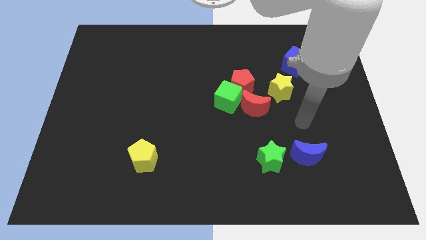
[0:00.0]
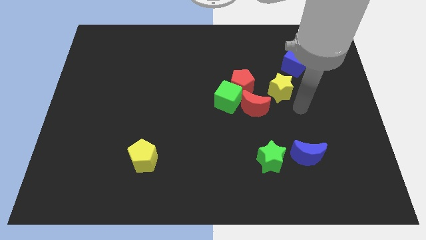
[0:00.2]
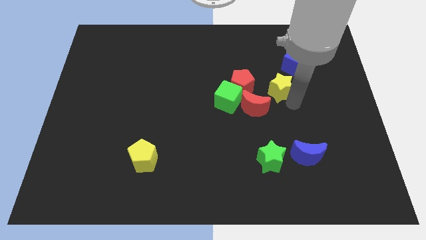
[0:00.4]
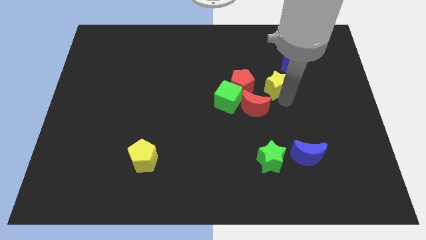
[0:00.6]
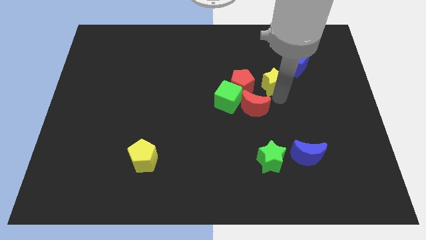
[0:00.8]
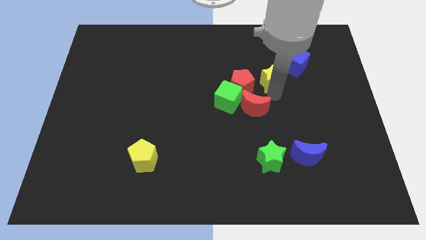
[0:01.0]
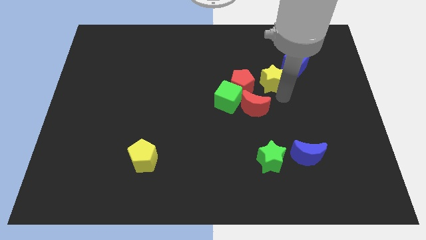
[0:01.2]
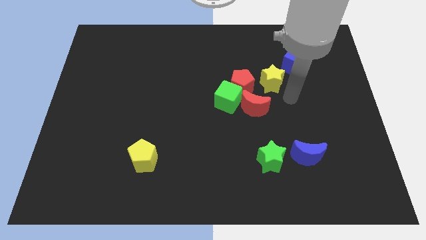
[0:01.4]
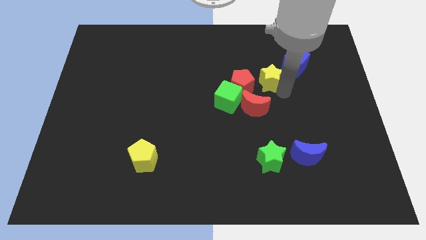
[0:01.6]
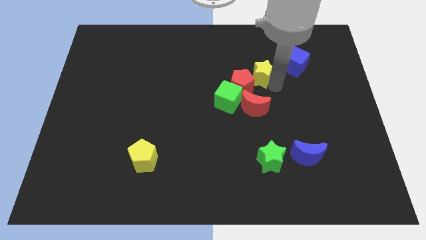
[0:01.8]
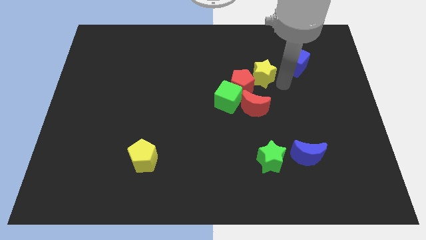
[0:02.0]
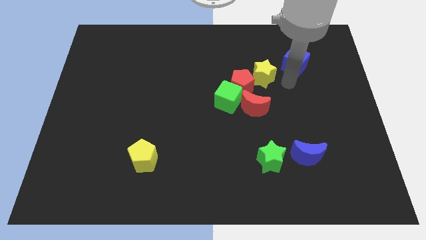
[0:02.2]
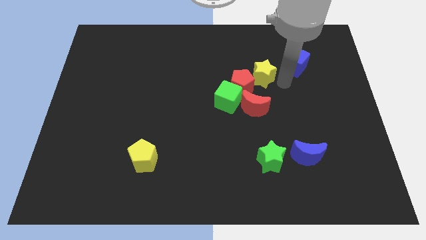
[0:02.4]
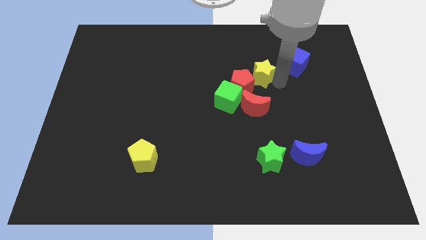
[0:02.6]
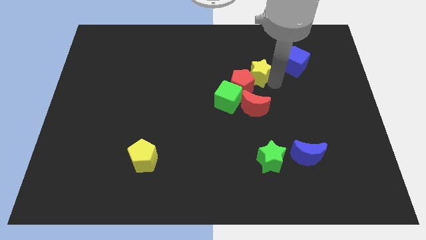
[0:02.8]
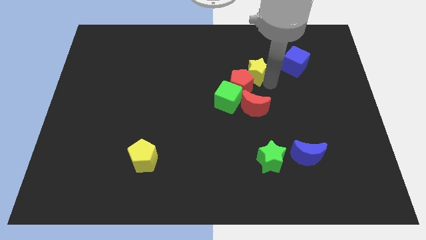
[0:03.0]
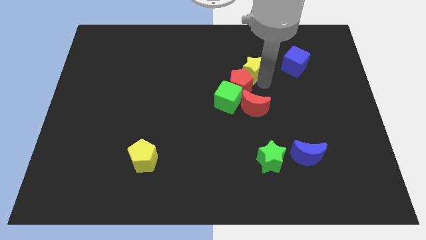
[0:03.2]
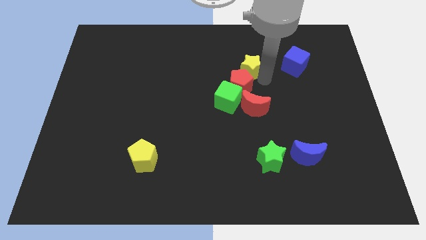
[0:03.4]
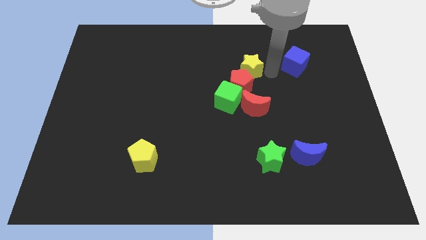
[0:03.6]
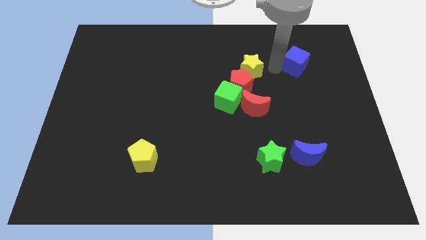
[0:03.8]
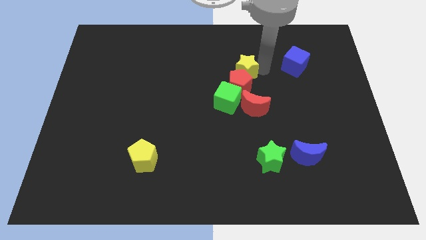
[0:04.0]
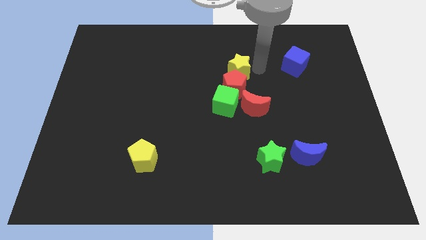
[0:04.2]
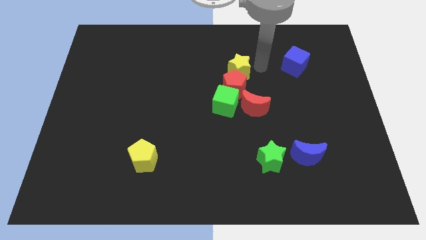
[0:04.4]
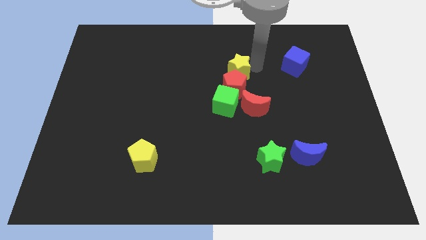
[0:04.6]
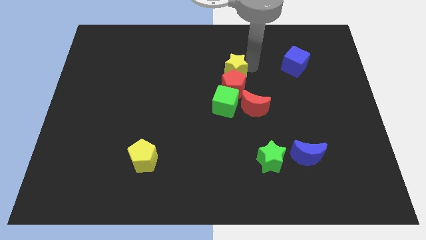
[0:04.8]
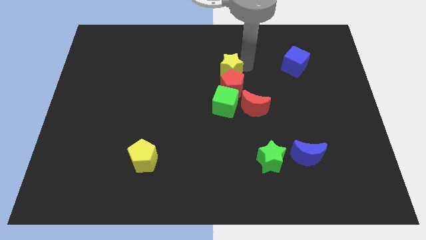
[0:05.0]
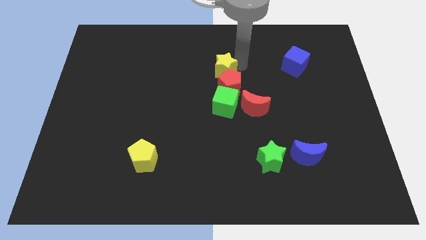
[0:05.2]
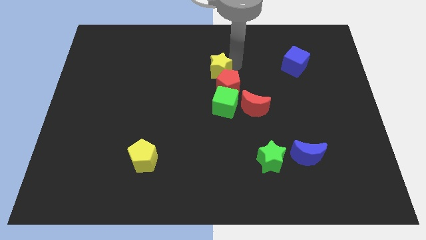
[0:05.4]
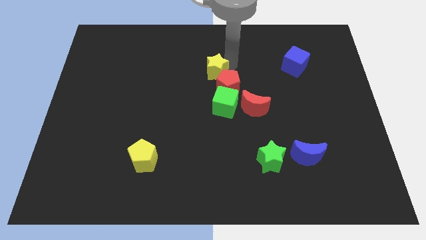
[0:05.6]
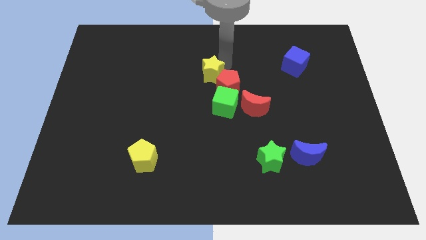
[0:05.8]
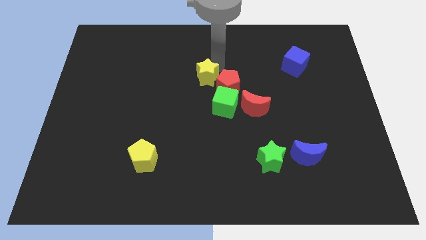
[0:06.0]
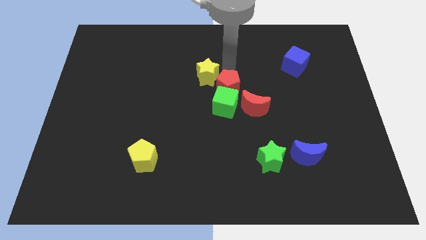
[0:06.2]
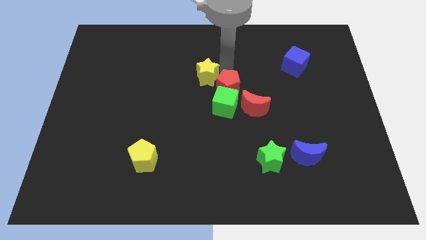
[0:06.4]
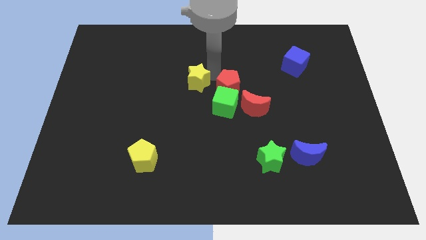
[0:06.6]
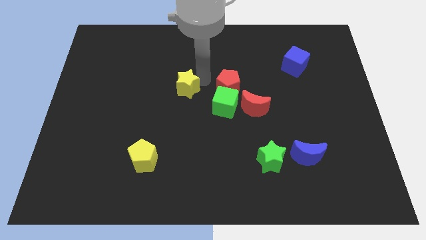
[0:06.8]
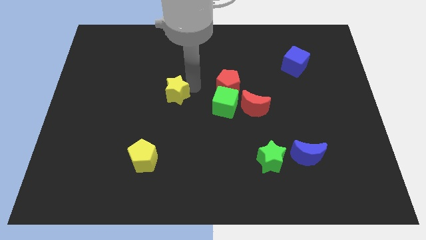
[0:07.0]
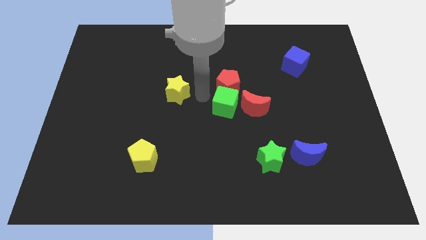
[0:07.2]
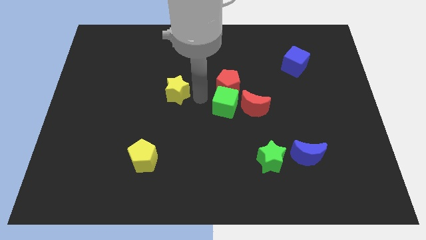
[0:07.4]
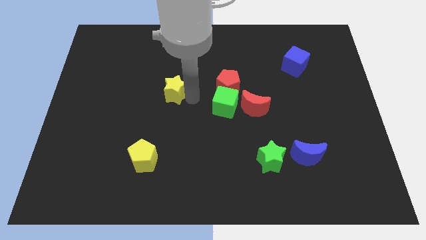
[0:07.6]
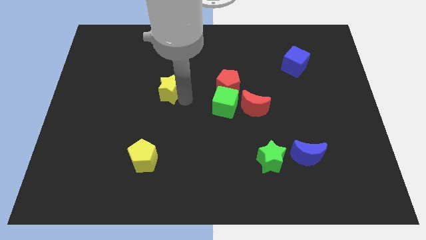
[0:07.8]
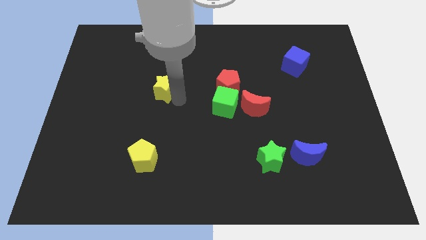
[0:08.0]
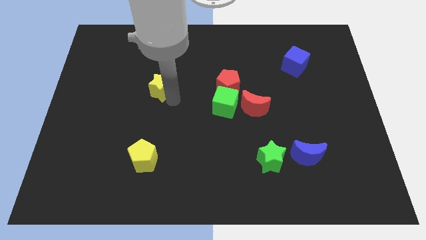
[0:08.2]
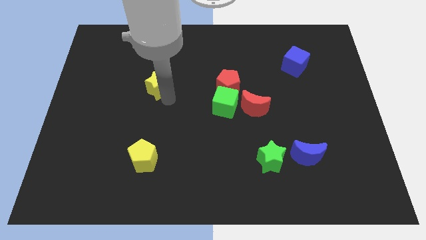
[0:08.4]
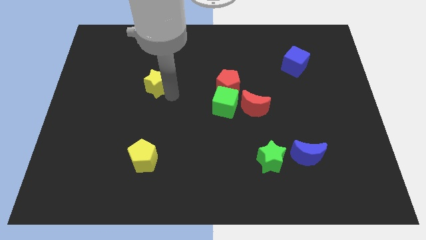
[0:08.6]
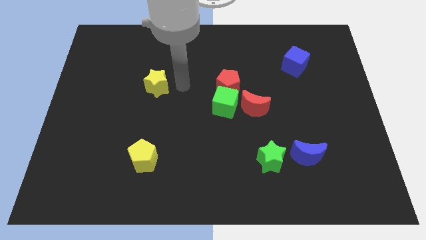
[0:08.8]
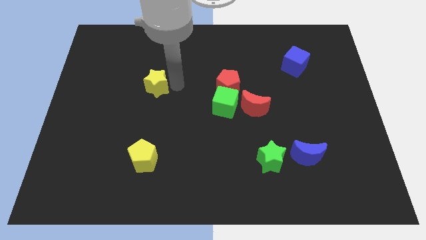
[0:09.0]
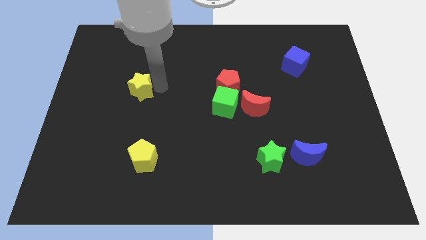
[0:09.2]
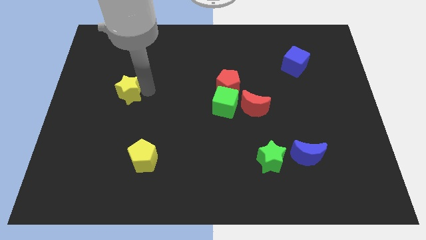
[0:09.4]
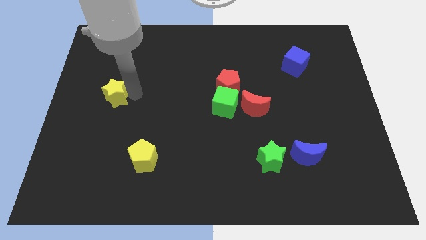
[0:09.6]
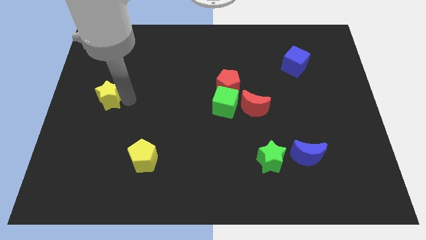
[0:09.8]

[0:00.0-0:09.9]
push the yellow star to the center left

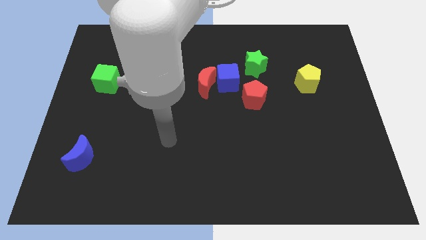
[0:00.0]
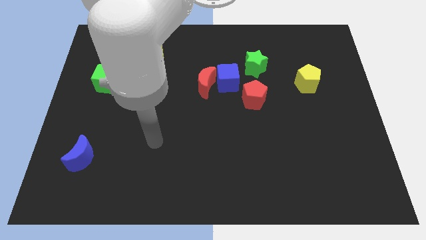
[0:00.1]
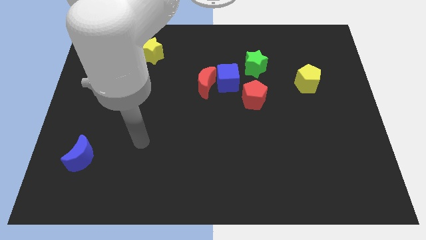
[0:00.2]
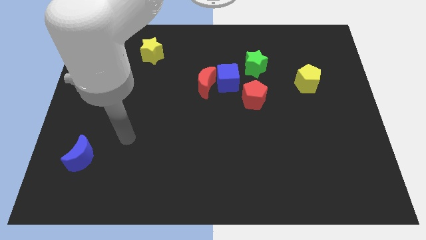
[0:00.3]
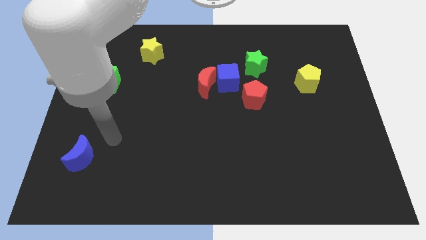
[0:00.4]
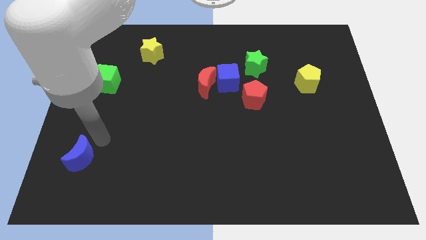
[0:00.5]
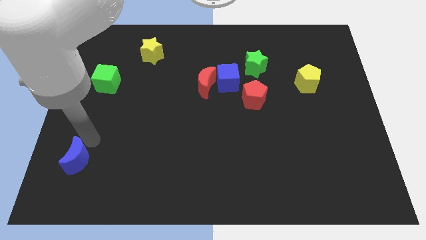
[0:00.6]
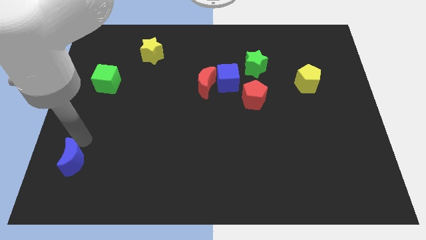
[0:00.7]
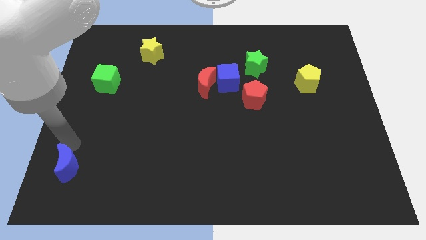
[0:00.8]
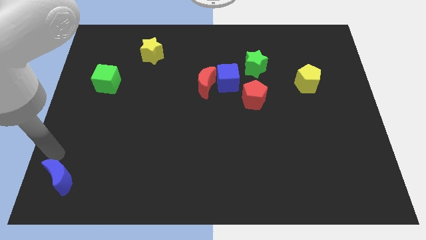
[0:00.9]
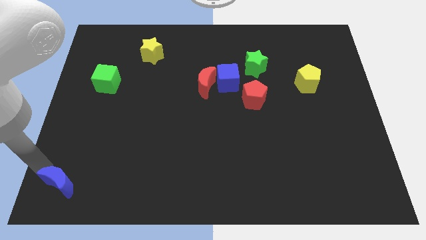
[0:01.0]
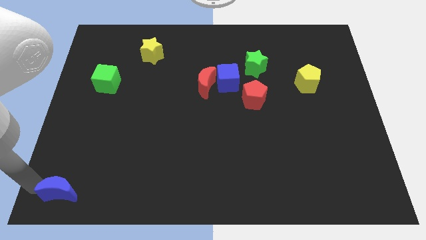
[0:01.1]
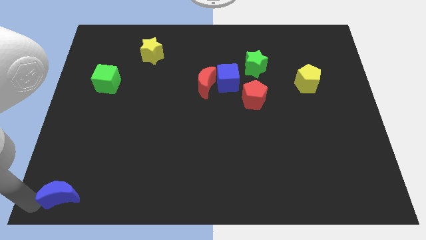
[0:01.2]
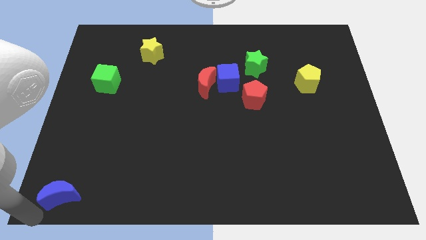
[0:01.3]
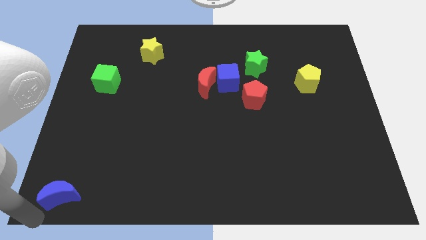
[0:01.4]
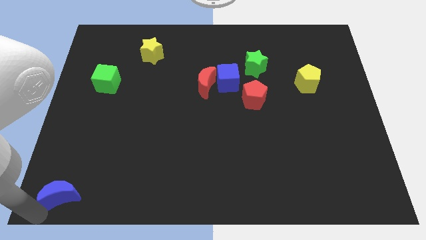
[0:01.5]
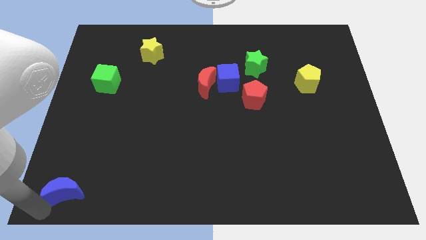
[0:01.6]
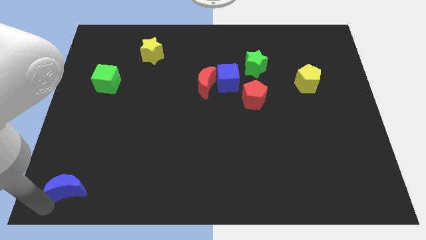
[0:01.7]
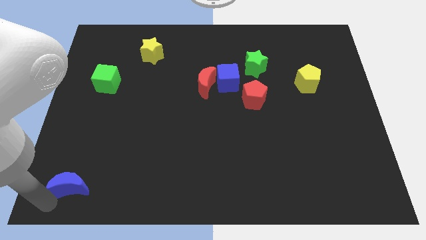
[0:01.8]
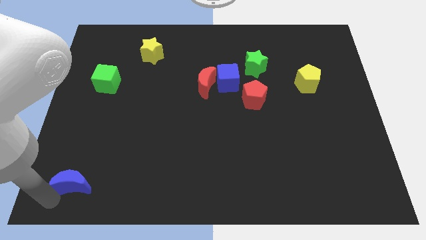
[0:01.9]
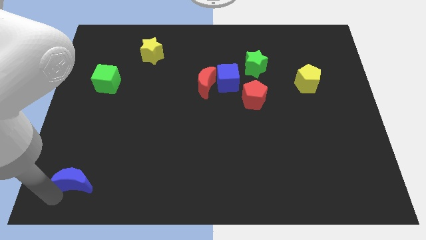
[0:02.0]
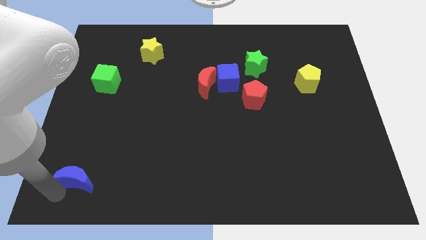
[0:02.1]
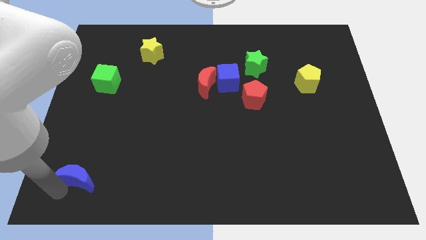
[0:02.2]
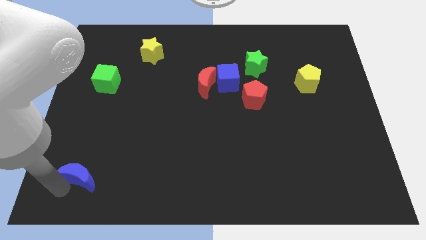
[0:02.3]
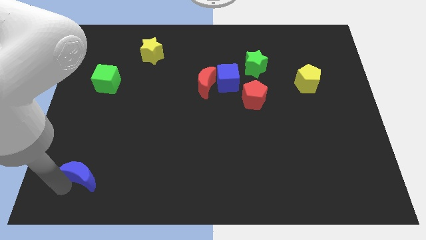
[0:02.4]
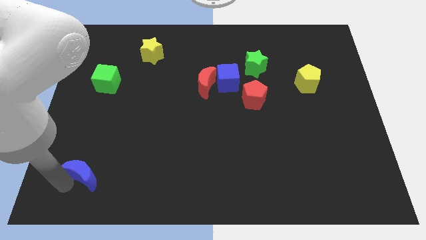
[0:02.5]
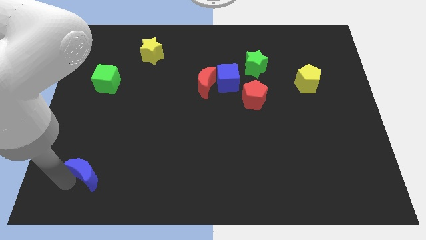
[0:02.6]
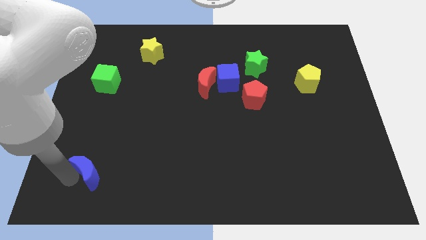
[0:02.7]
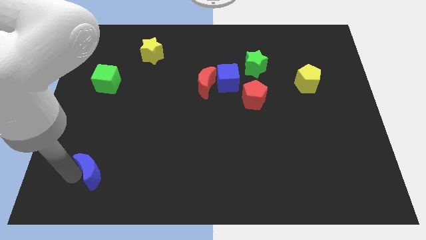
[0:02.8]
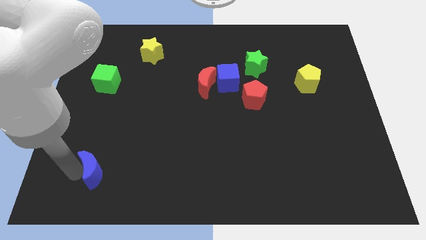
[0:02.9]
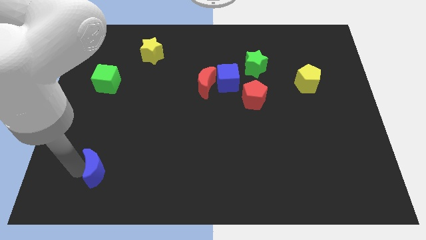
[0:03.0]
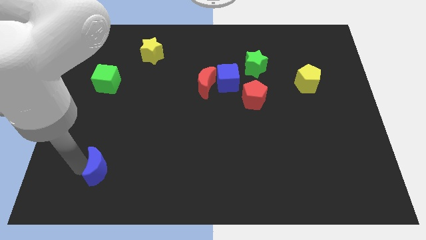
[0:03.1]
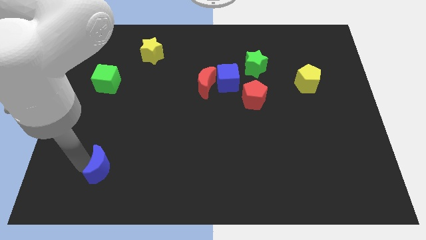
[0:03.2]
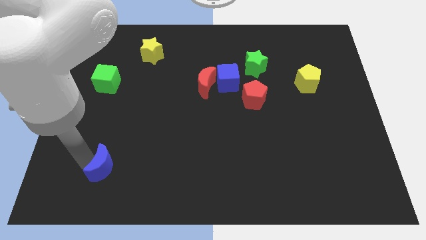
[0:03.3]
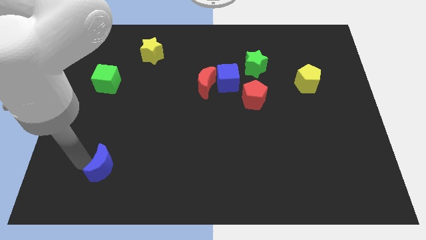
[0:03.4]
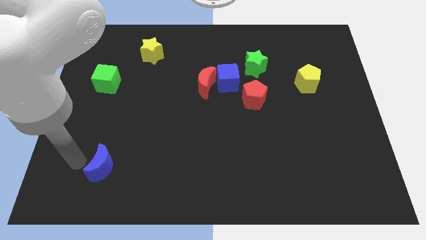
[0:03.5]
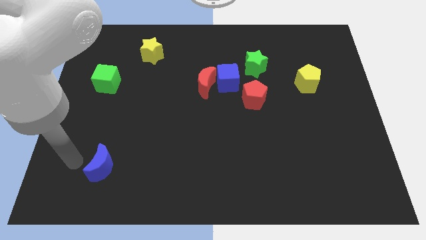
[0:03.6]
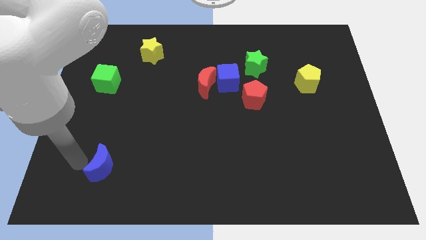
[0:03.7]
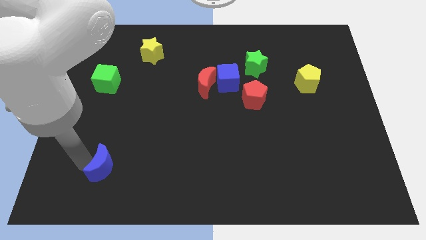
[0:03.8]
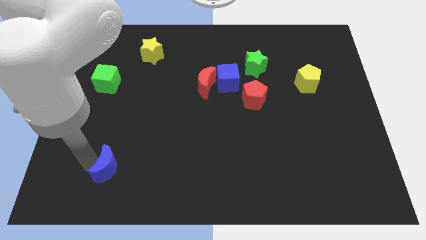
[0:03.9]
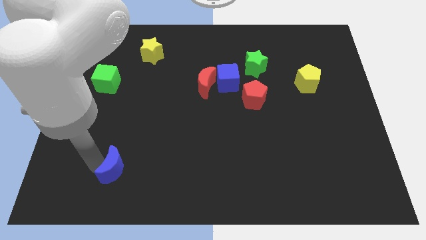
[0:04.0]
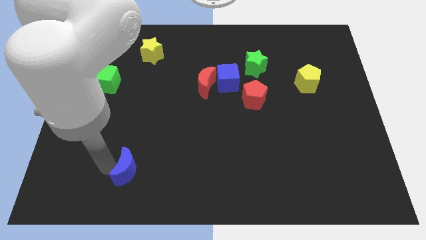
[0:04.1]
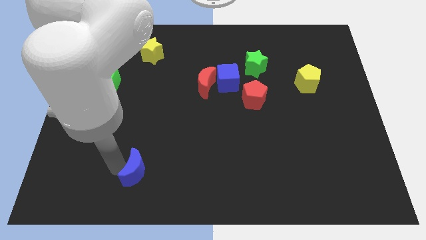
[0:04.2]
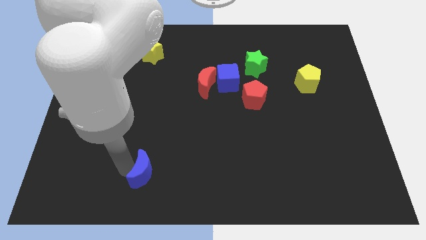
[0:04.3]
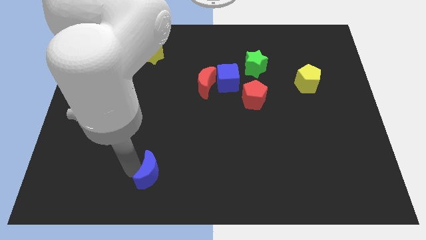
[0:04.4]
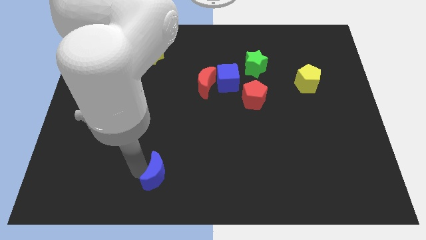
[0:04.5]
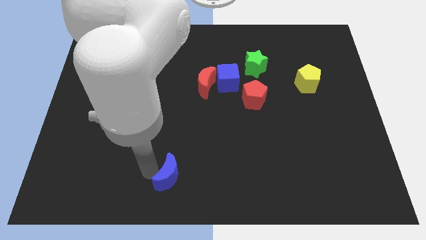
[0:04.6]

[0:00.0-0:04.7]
push the blue moon to the bottom
